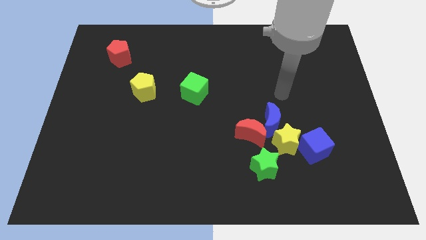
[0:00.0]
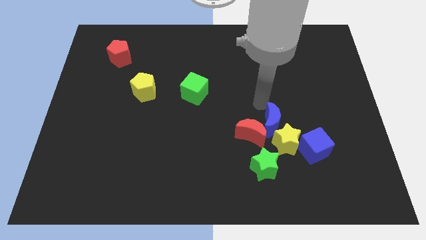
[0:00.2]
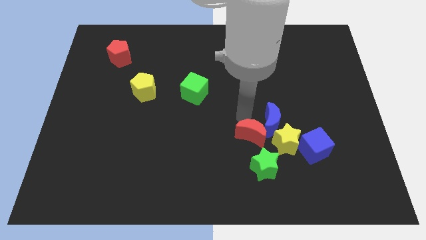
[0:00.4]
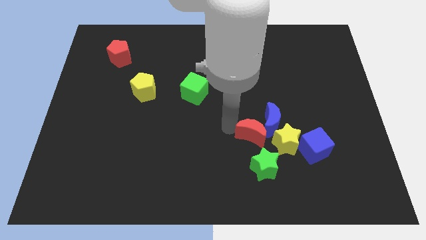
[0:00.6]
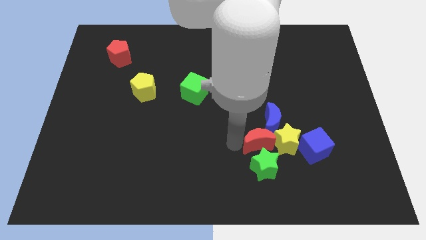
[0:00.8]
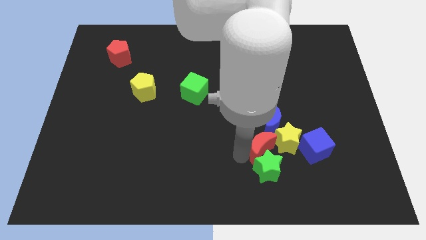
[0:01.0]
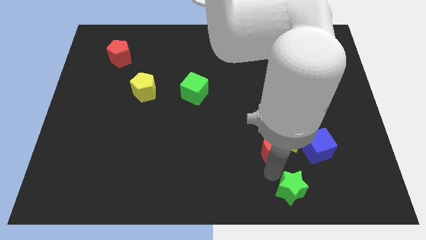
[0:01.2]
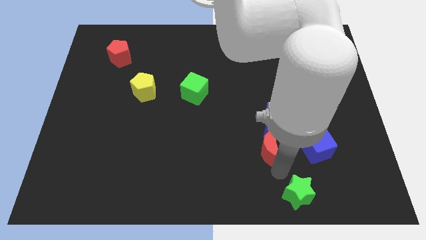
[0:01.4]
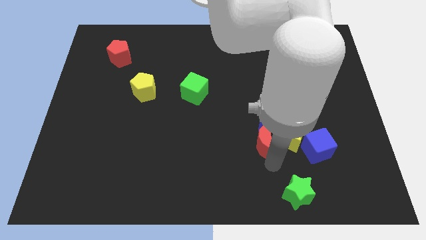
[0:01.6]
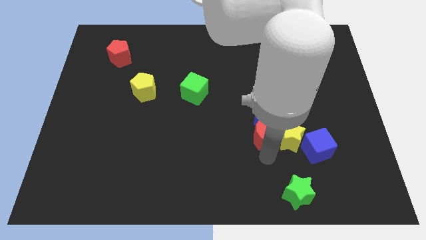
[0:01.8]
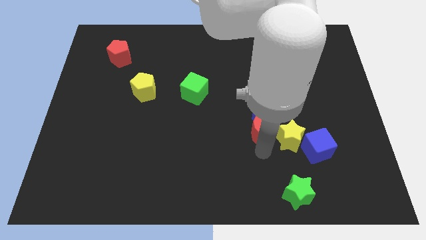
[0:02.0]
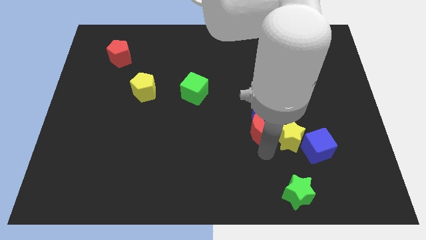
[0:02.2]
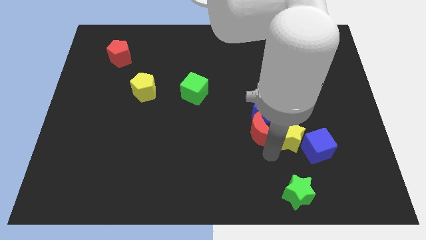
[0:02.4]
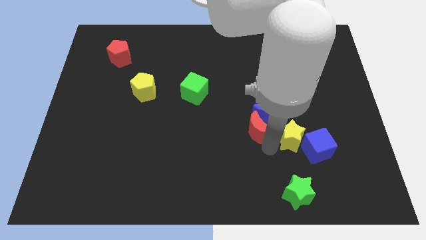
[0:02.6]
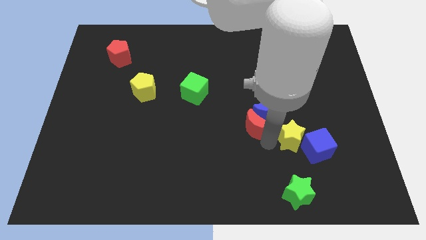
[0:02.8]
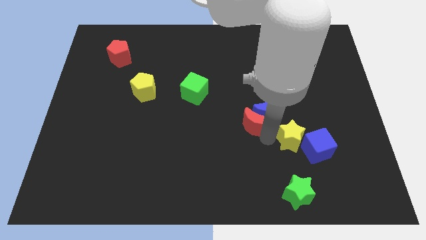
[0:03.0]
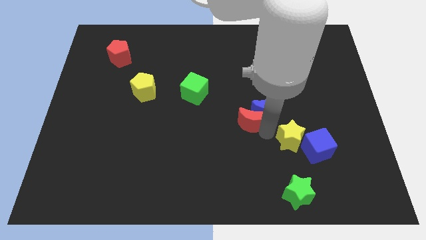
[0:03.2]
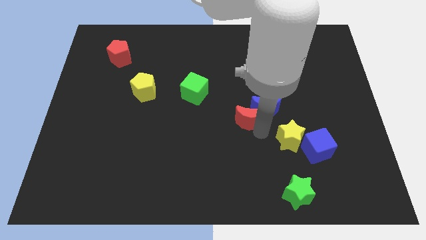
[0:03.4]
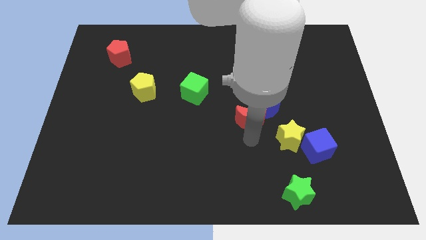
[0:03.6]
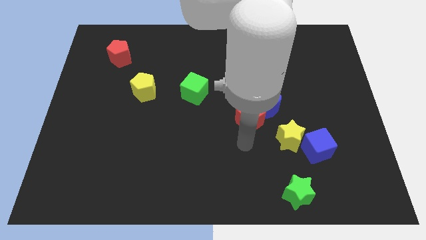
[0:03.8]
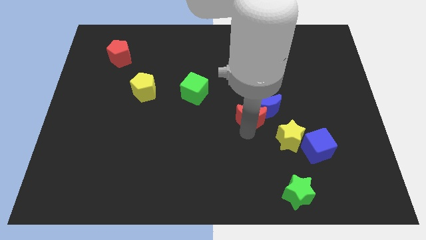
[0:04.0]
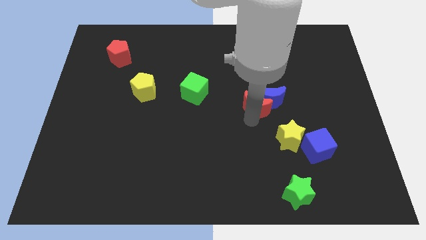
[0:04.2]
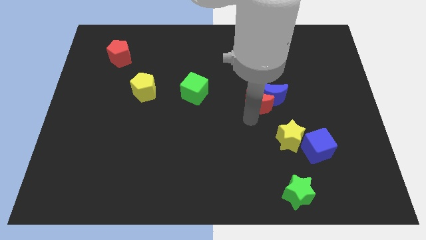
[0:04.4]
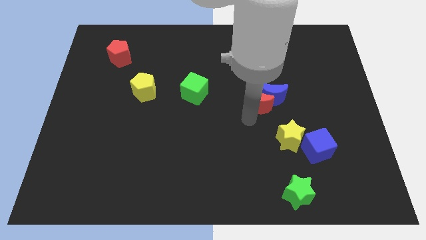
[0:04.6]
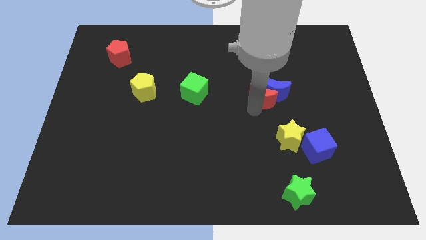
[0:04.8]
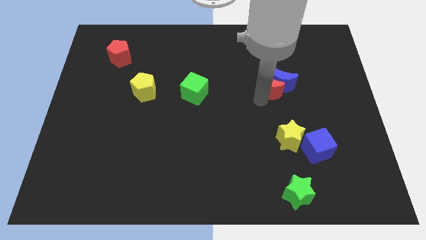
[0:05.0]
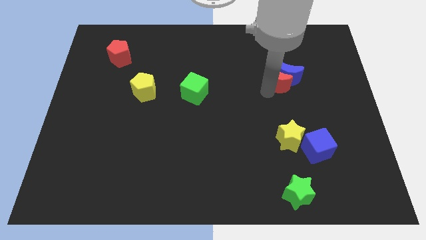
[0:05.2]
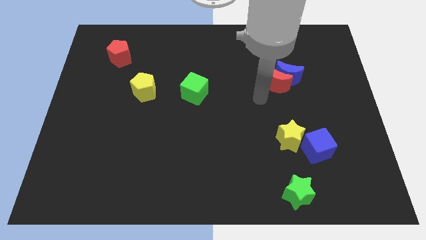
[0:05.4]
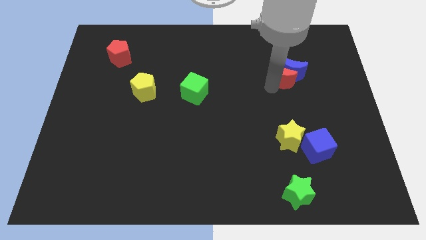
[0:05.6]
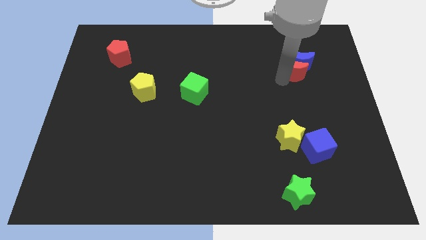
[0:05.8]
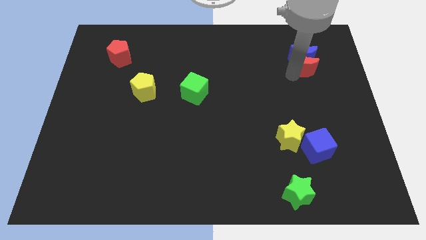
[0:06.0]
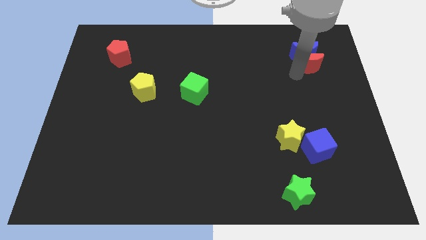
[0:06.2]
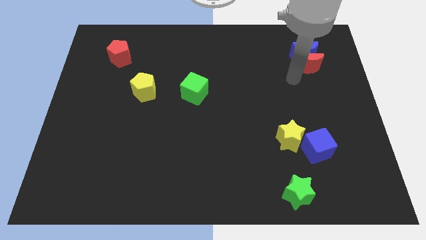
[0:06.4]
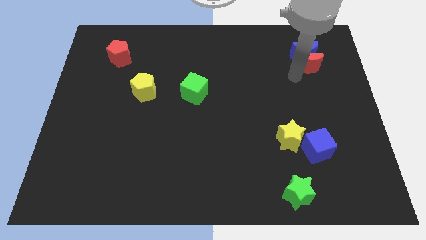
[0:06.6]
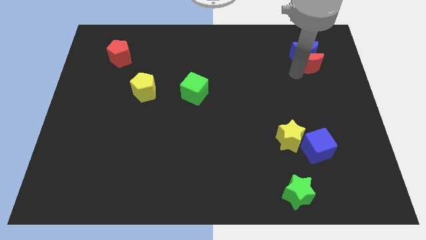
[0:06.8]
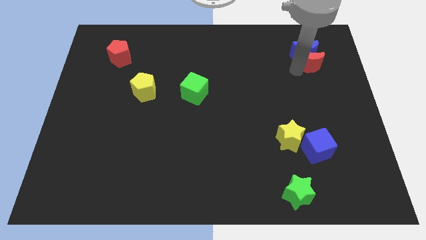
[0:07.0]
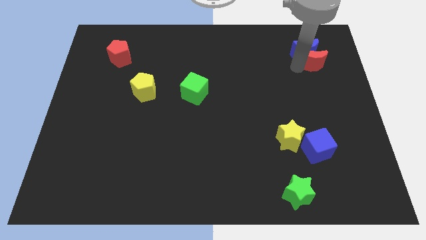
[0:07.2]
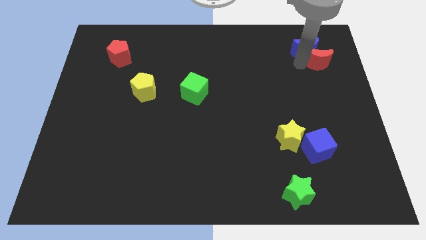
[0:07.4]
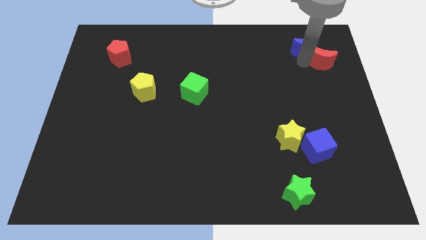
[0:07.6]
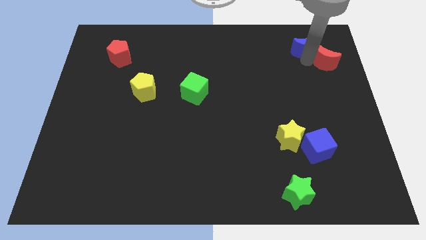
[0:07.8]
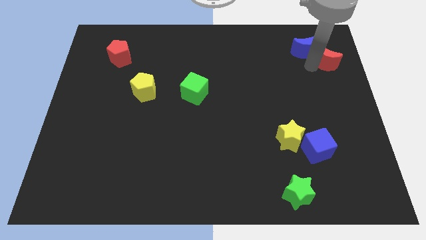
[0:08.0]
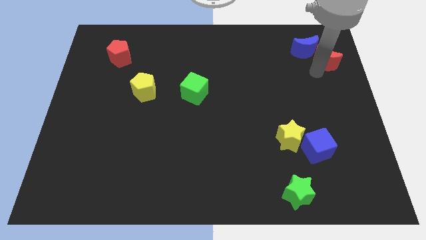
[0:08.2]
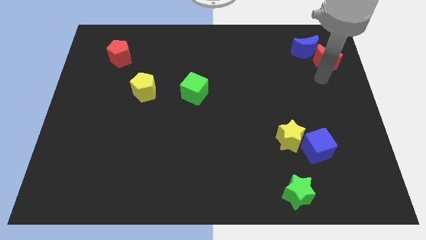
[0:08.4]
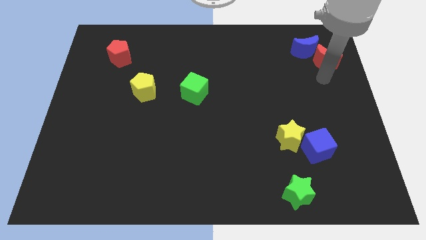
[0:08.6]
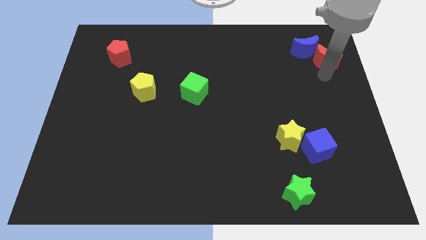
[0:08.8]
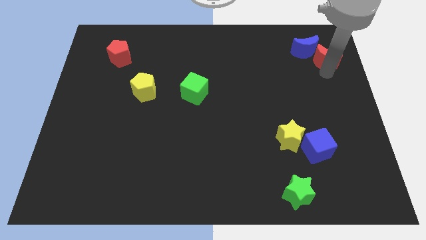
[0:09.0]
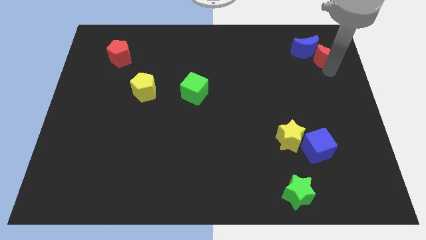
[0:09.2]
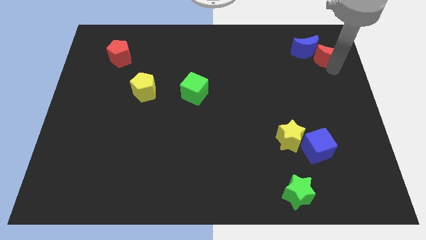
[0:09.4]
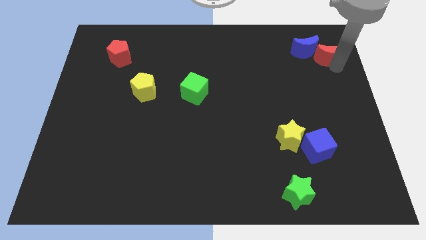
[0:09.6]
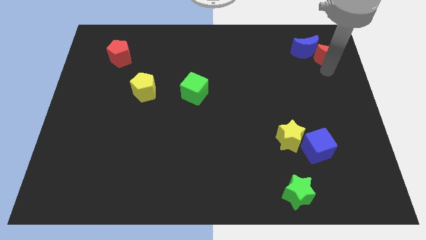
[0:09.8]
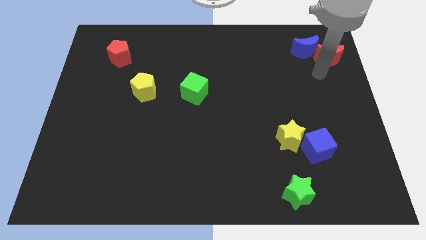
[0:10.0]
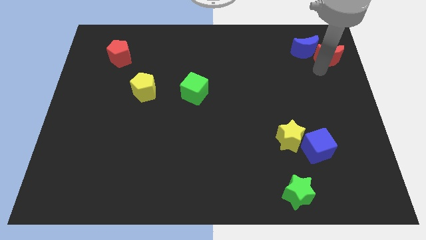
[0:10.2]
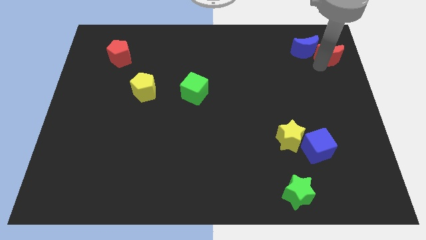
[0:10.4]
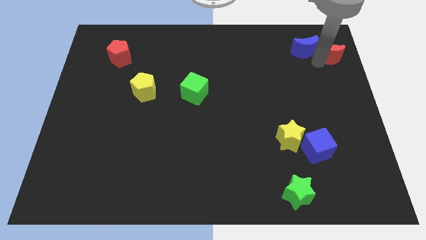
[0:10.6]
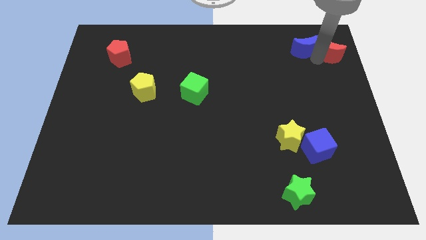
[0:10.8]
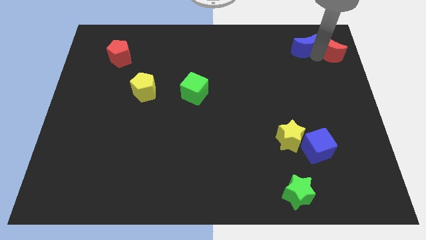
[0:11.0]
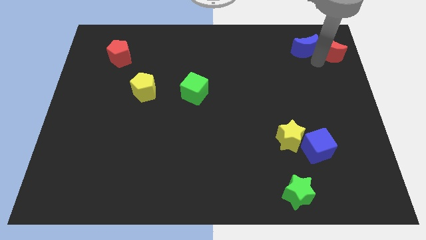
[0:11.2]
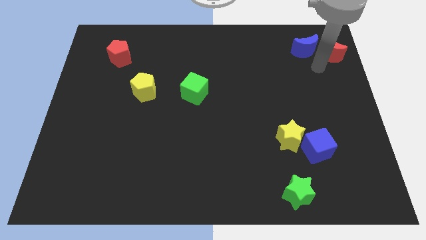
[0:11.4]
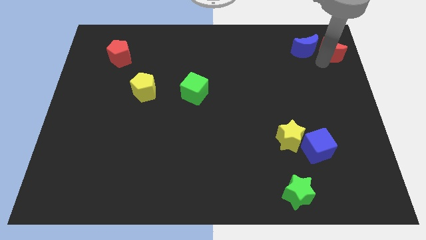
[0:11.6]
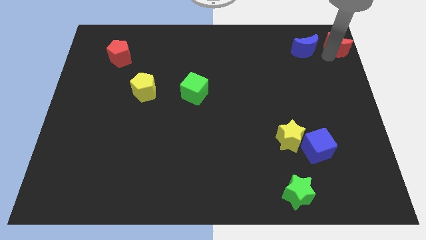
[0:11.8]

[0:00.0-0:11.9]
slide the red moon to the upper right corner
